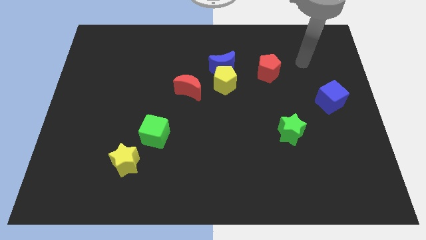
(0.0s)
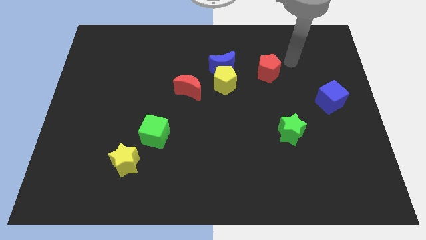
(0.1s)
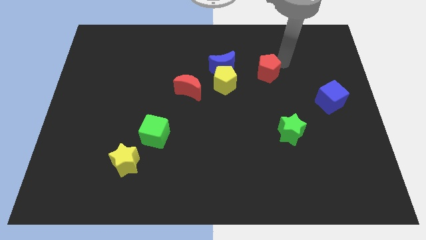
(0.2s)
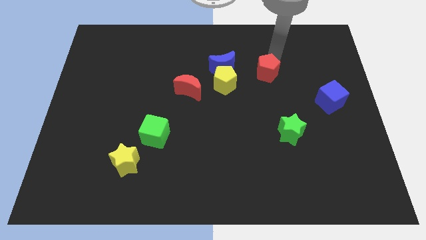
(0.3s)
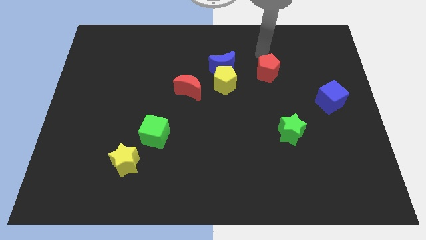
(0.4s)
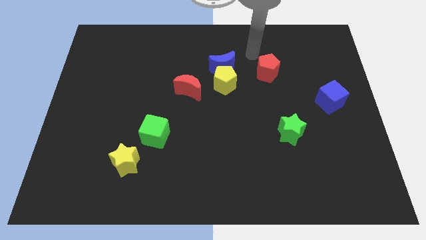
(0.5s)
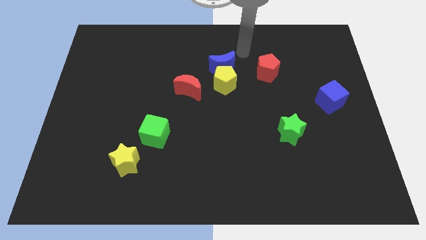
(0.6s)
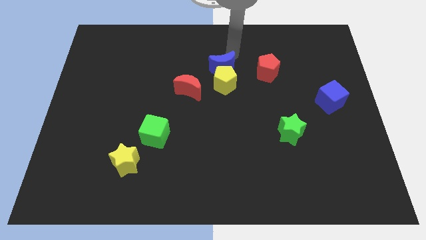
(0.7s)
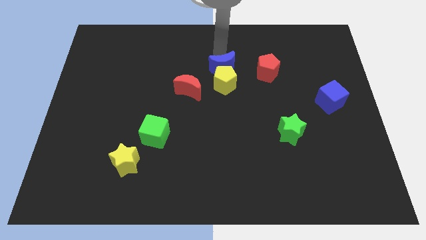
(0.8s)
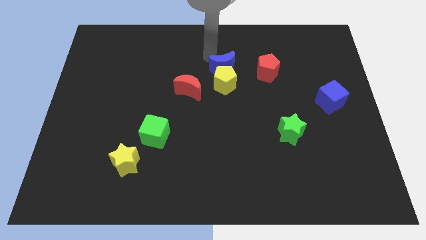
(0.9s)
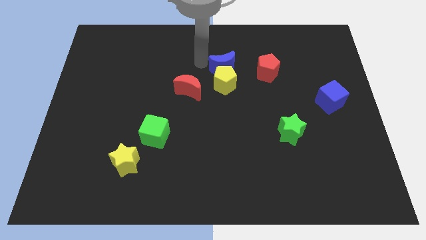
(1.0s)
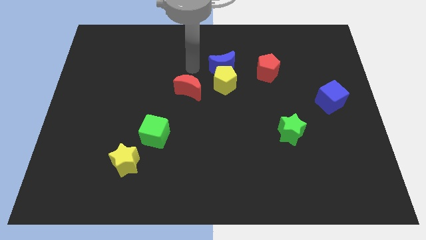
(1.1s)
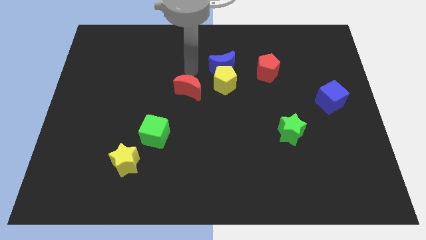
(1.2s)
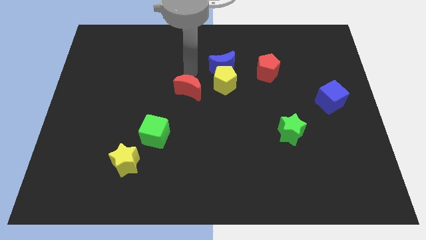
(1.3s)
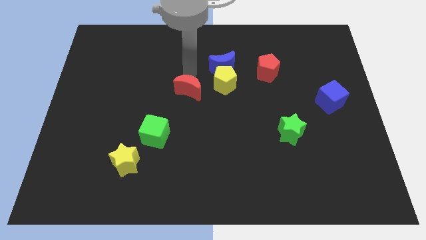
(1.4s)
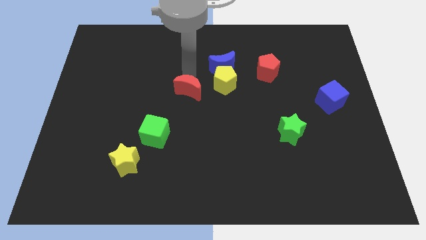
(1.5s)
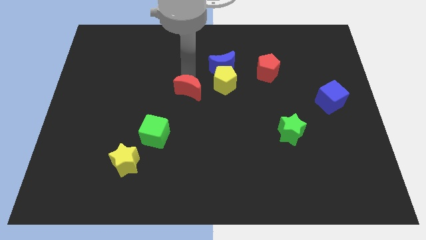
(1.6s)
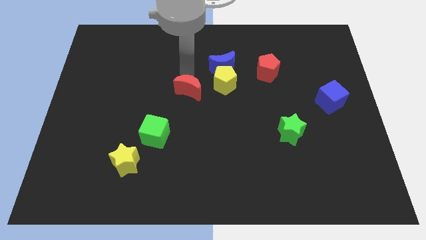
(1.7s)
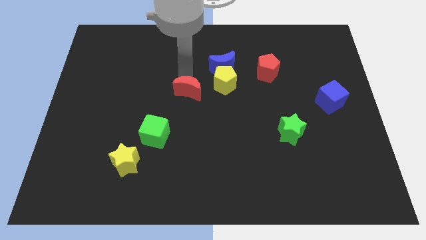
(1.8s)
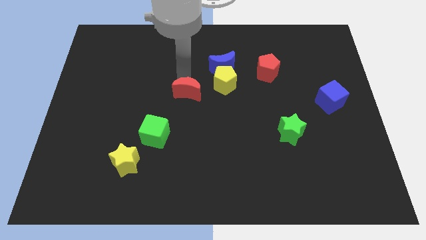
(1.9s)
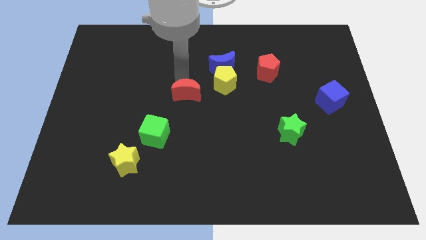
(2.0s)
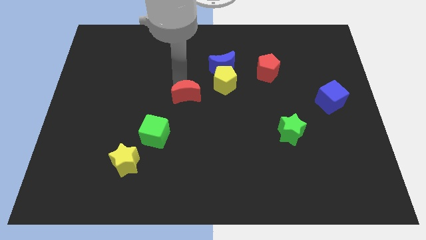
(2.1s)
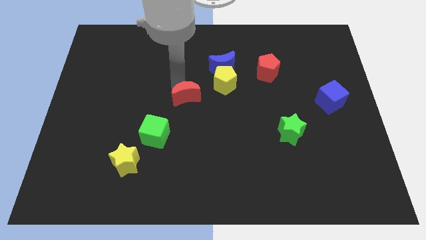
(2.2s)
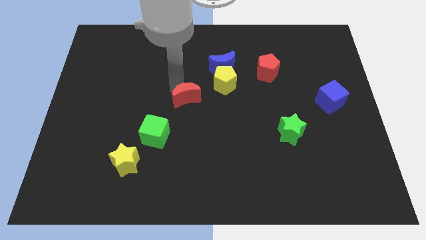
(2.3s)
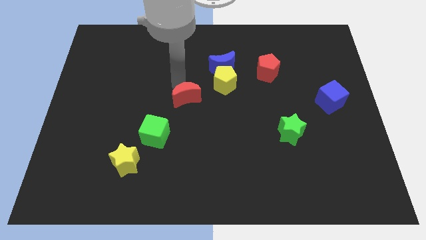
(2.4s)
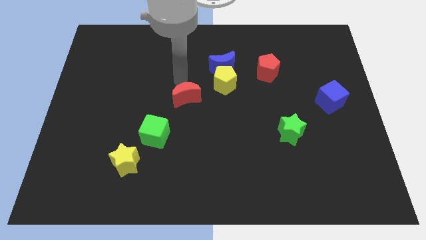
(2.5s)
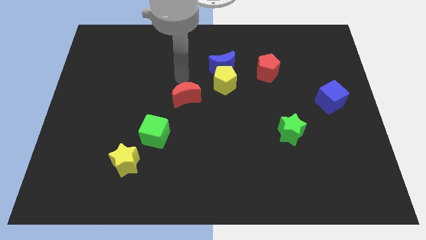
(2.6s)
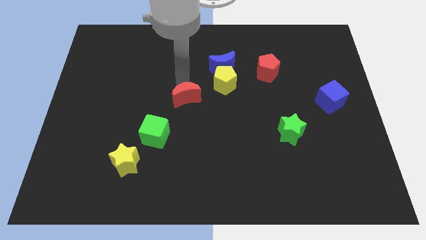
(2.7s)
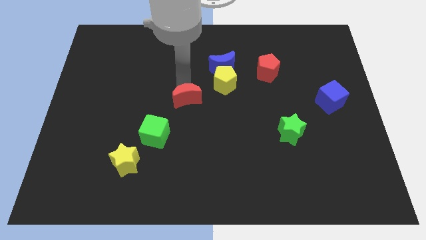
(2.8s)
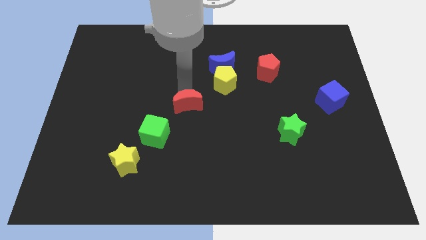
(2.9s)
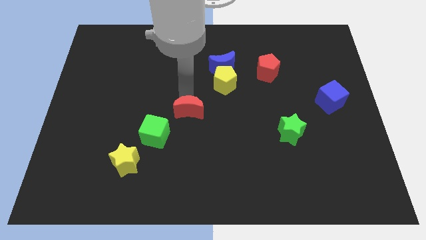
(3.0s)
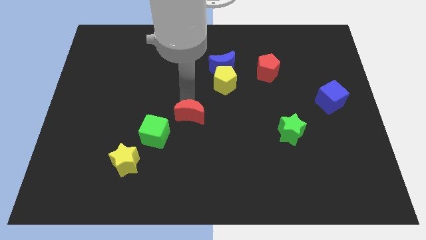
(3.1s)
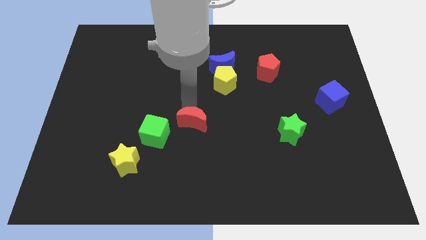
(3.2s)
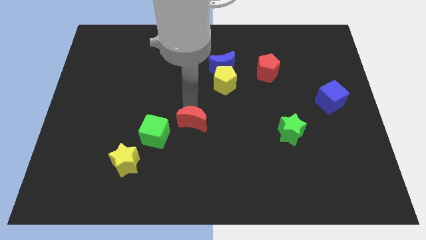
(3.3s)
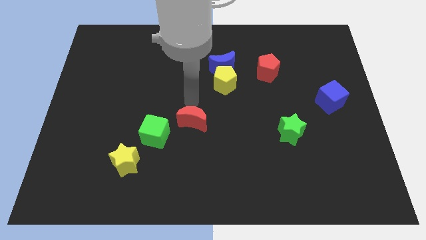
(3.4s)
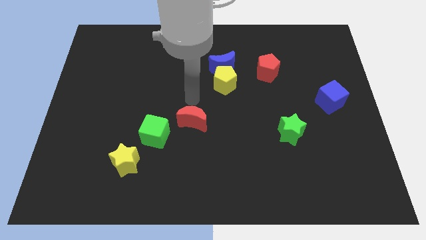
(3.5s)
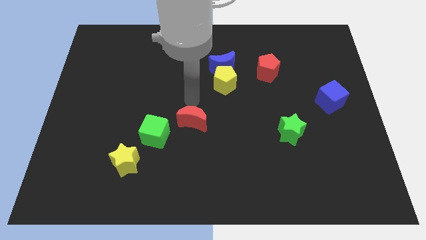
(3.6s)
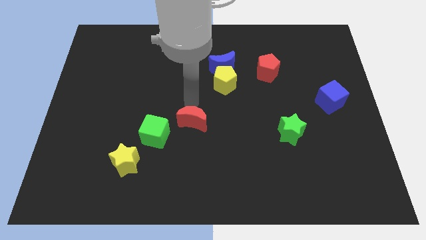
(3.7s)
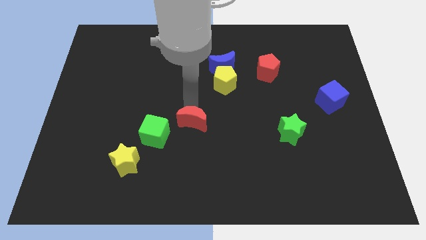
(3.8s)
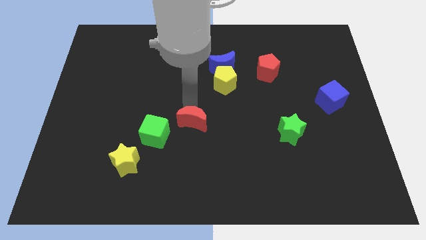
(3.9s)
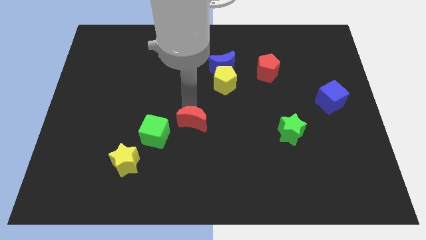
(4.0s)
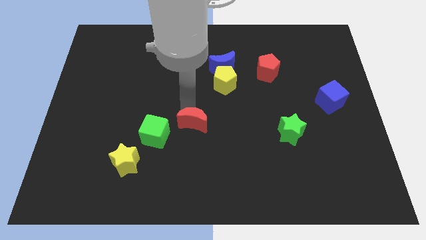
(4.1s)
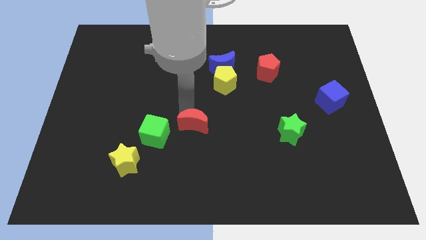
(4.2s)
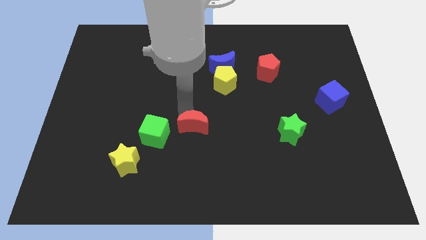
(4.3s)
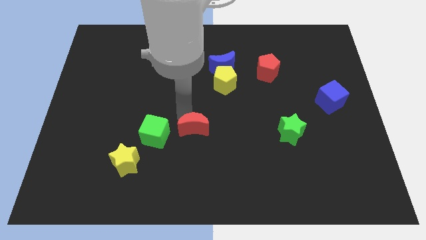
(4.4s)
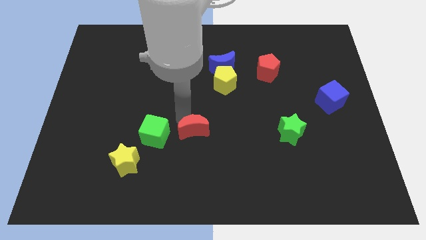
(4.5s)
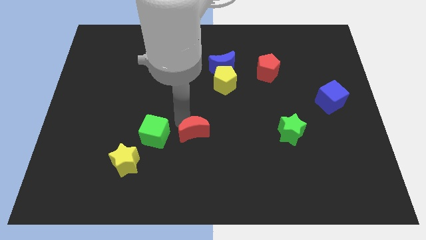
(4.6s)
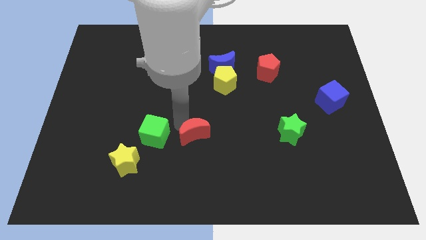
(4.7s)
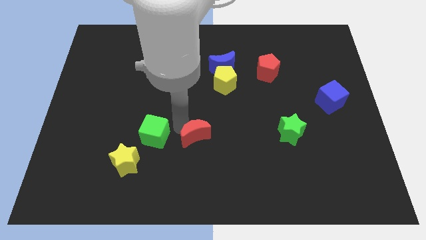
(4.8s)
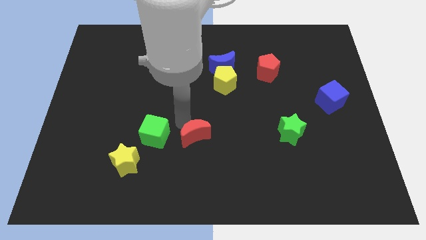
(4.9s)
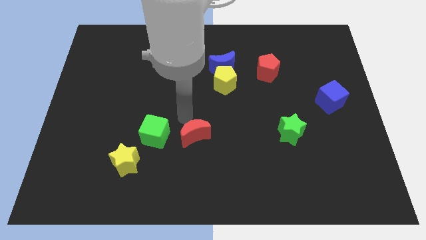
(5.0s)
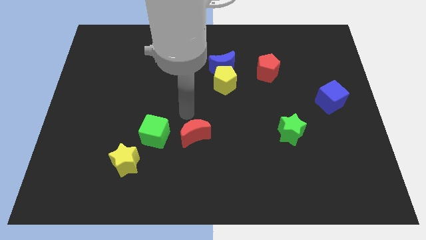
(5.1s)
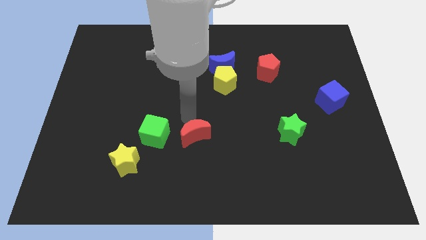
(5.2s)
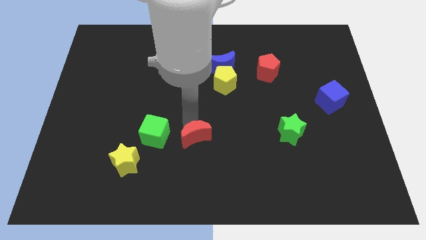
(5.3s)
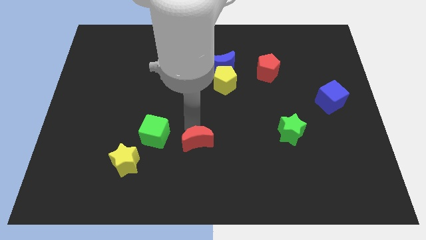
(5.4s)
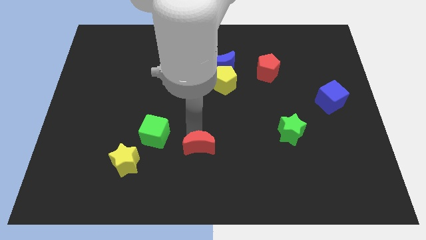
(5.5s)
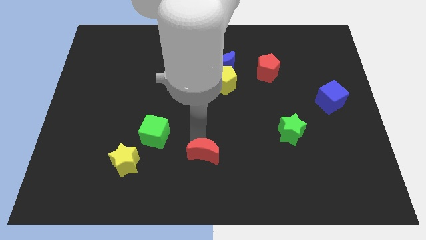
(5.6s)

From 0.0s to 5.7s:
push the red moon to the bottom side

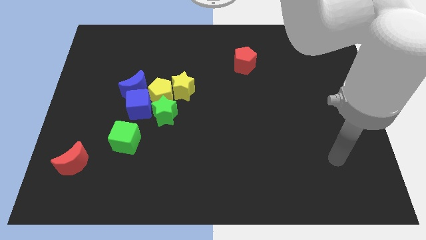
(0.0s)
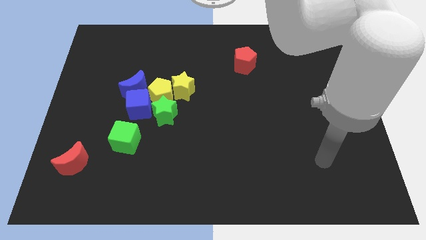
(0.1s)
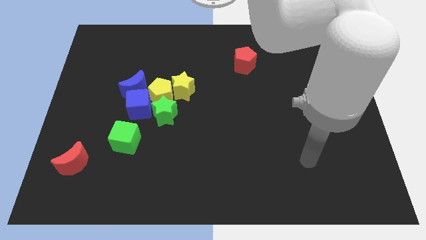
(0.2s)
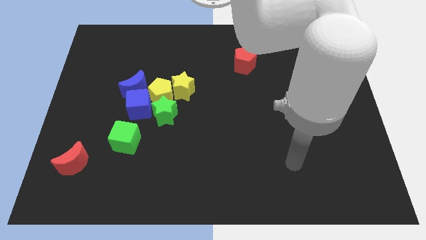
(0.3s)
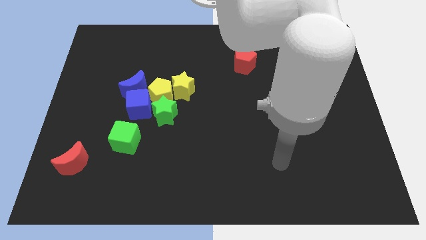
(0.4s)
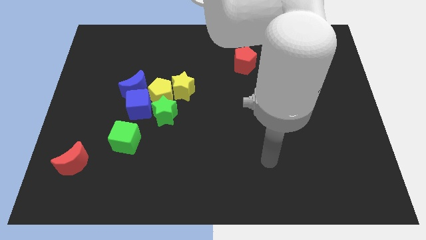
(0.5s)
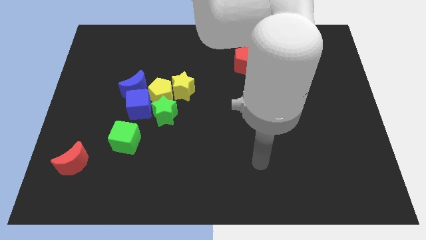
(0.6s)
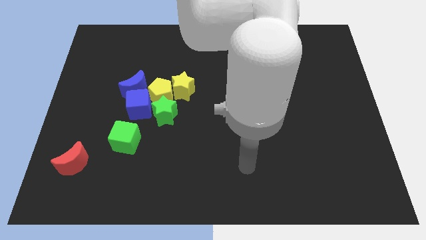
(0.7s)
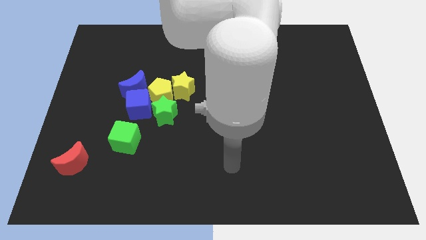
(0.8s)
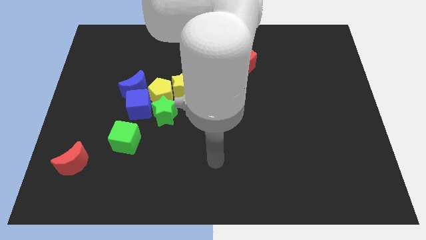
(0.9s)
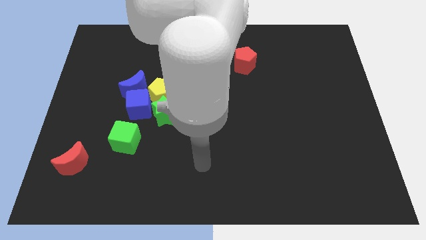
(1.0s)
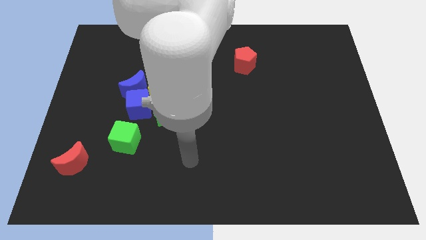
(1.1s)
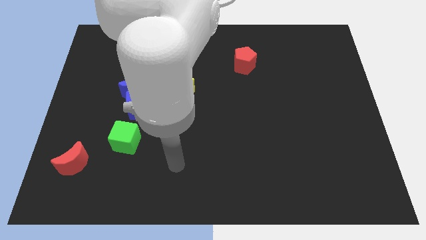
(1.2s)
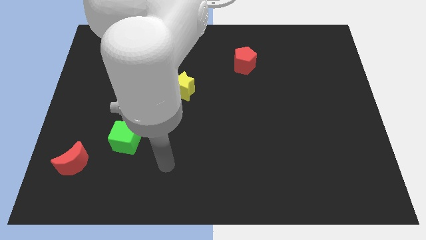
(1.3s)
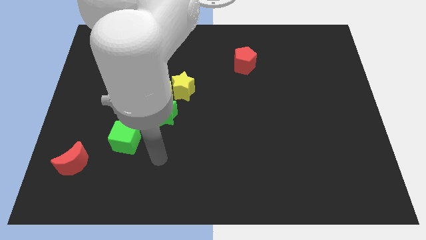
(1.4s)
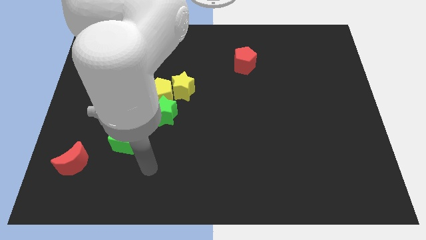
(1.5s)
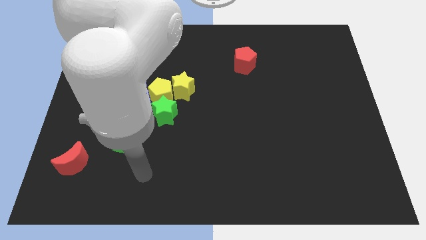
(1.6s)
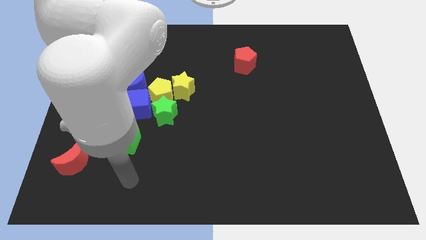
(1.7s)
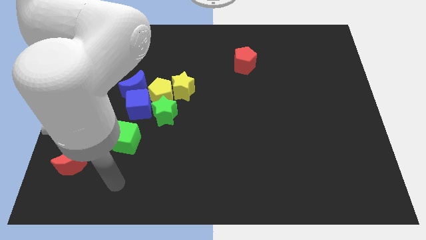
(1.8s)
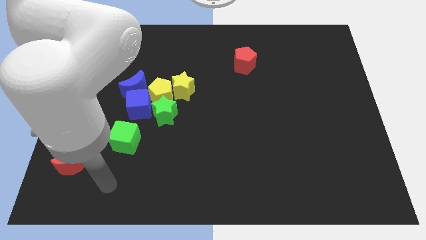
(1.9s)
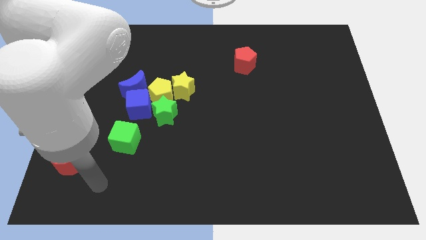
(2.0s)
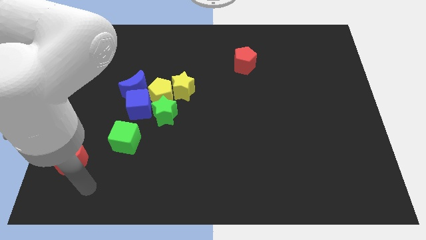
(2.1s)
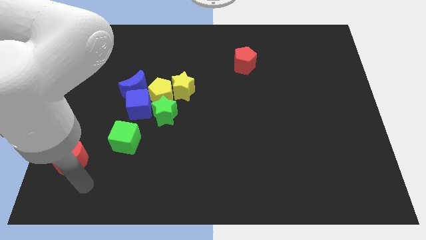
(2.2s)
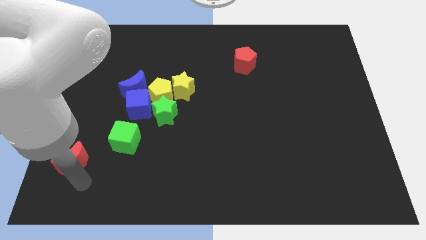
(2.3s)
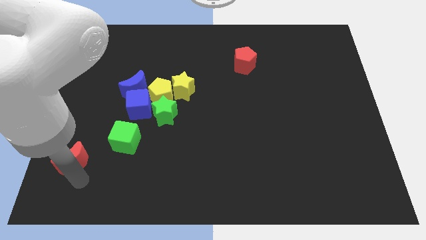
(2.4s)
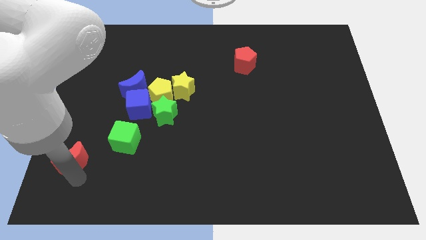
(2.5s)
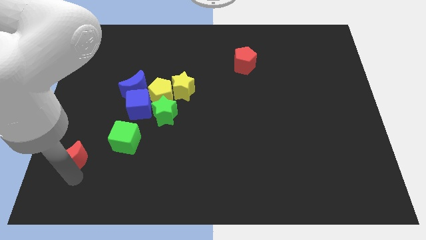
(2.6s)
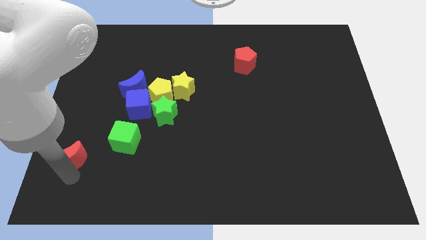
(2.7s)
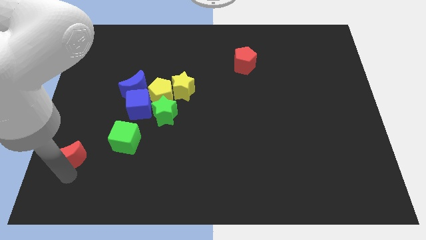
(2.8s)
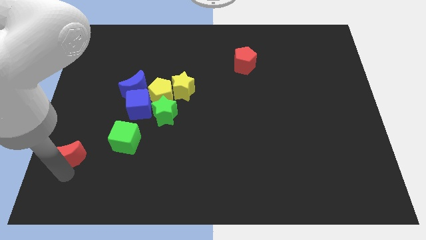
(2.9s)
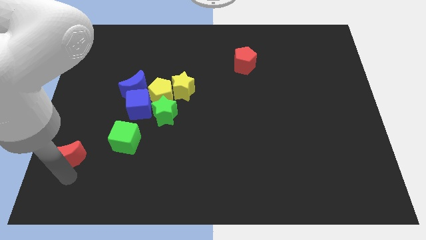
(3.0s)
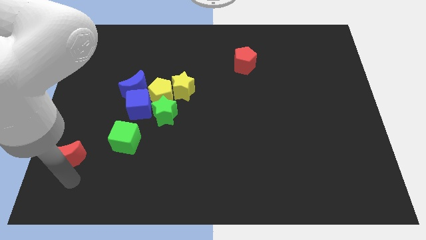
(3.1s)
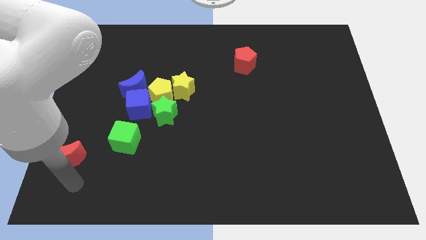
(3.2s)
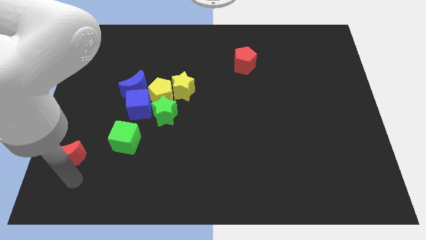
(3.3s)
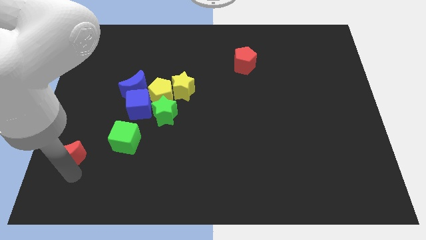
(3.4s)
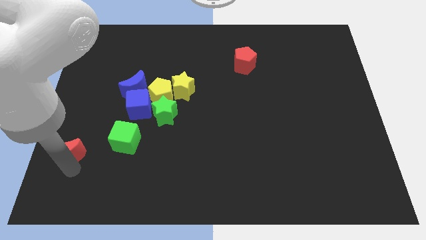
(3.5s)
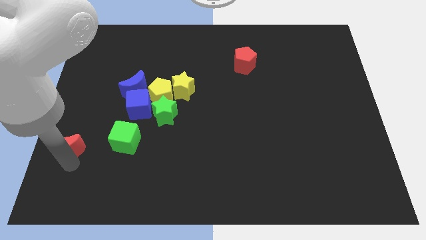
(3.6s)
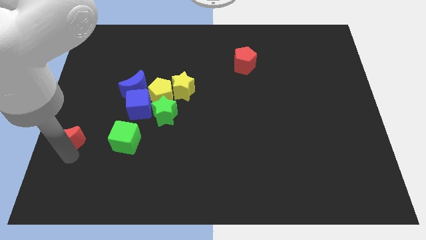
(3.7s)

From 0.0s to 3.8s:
put the red moon to the left side of the board
